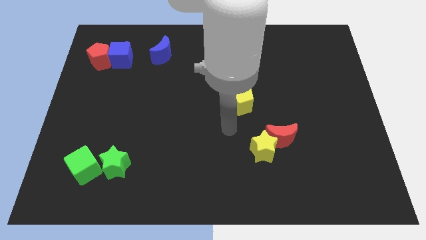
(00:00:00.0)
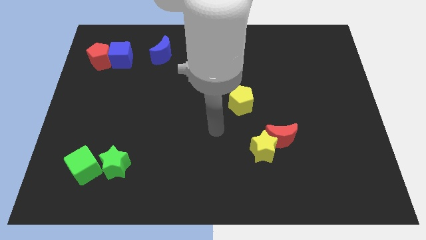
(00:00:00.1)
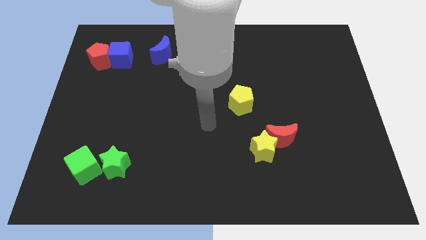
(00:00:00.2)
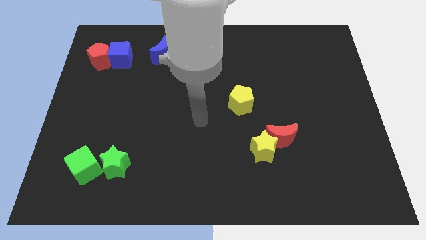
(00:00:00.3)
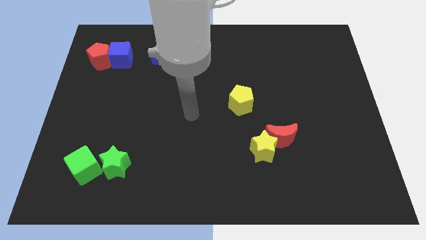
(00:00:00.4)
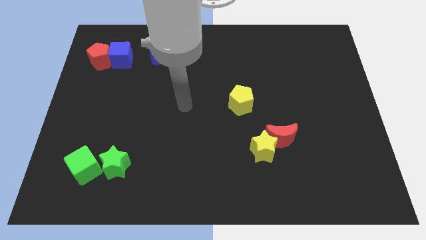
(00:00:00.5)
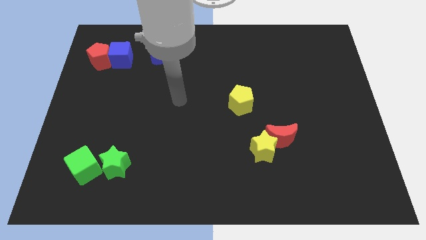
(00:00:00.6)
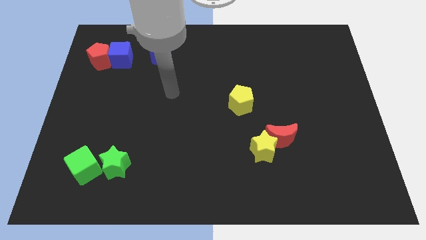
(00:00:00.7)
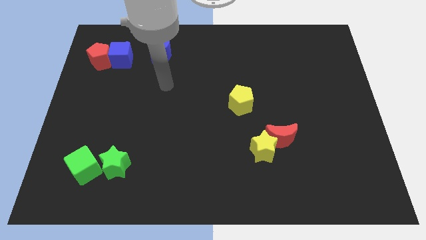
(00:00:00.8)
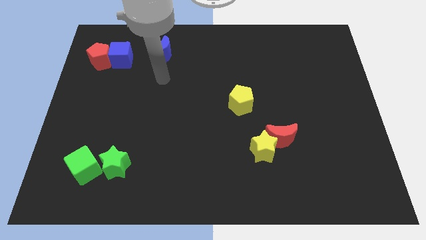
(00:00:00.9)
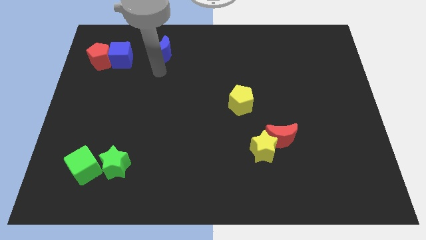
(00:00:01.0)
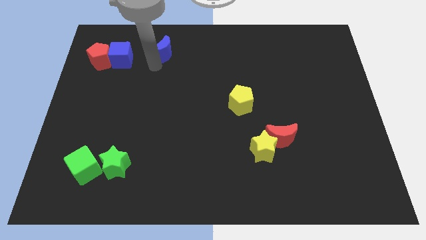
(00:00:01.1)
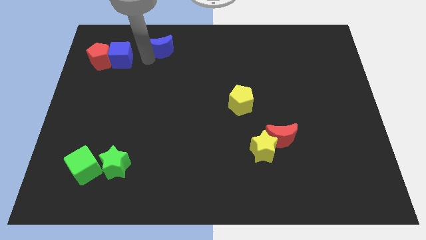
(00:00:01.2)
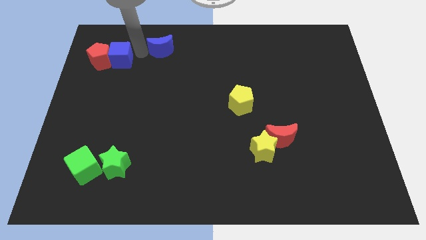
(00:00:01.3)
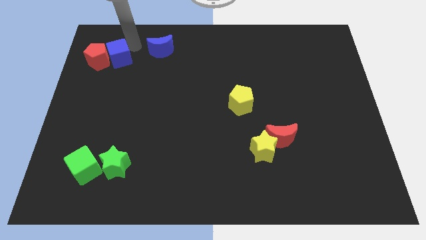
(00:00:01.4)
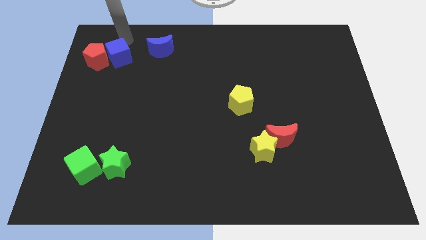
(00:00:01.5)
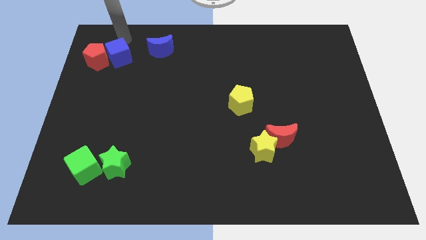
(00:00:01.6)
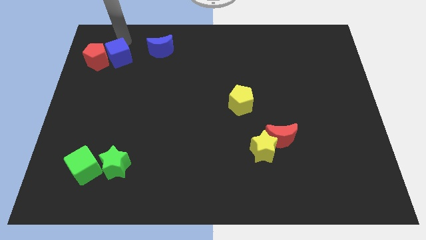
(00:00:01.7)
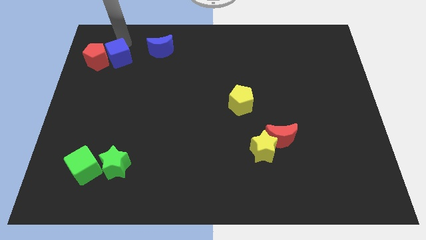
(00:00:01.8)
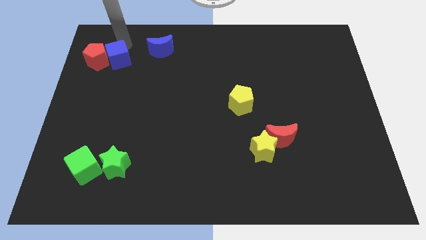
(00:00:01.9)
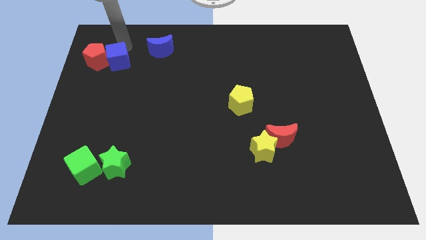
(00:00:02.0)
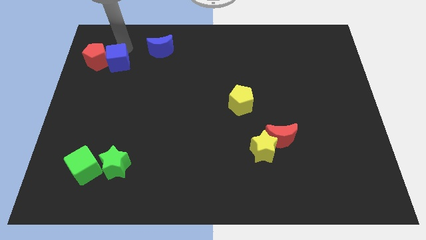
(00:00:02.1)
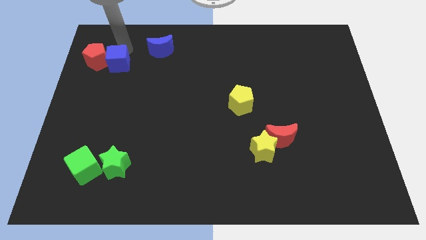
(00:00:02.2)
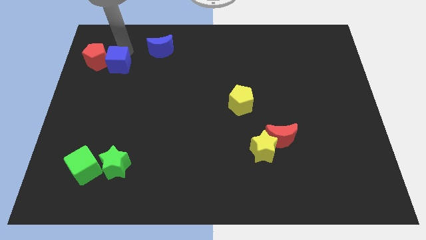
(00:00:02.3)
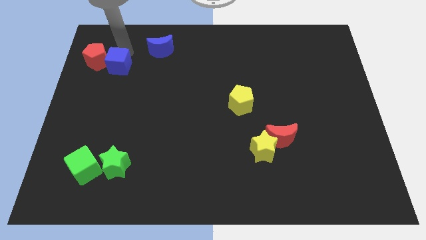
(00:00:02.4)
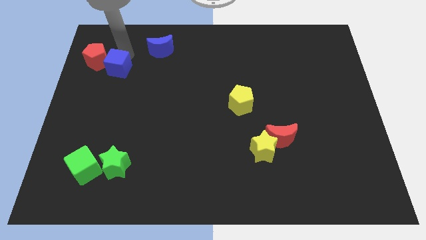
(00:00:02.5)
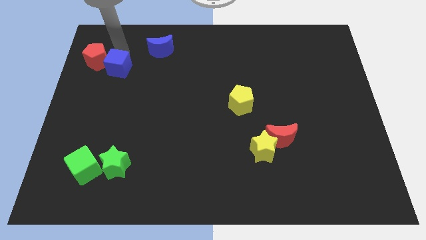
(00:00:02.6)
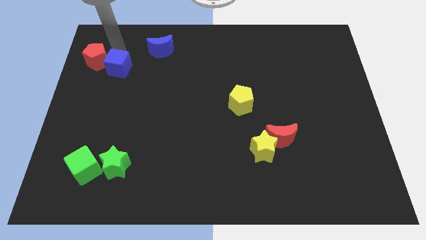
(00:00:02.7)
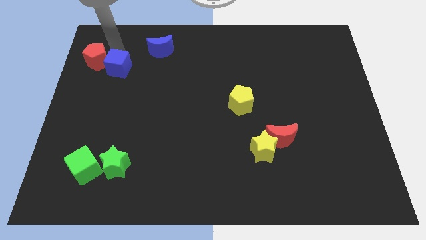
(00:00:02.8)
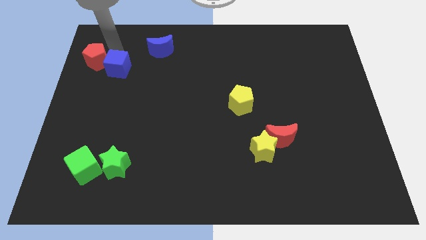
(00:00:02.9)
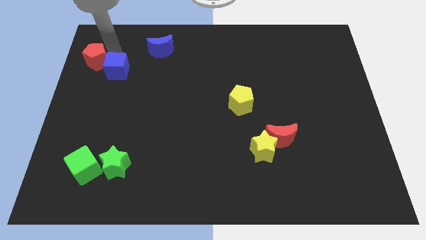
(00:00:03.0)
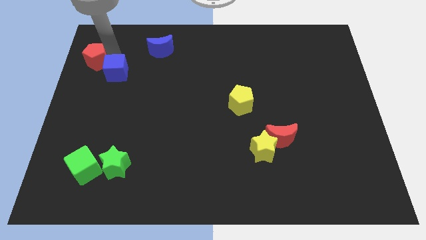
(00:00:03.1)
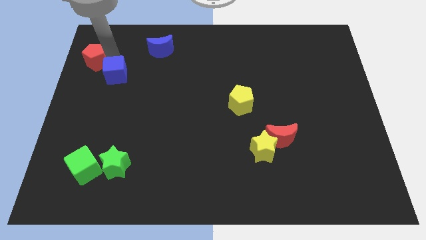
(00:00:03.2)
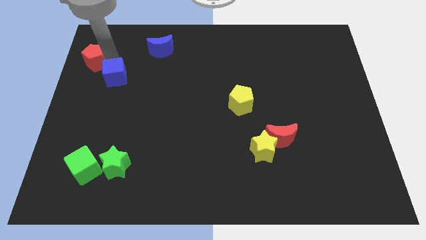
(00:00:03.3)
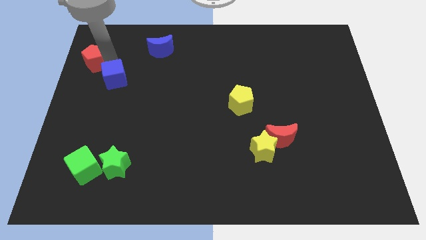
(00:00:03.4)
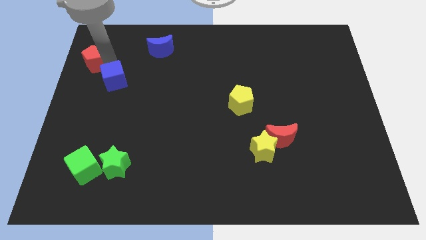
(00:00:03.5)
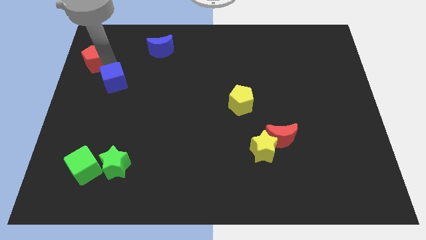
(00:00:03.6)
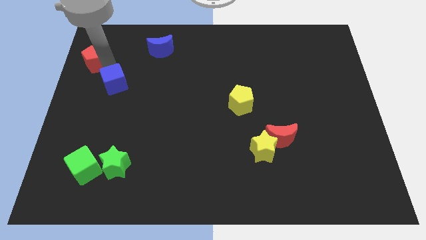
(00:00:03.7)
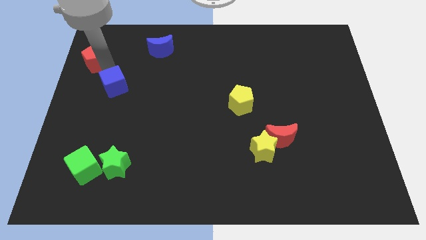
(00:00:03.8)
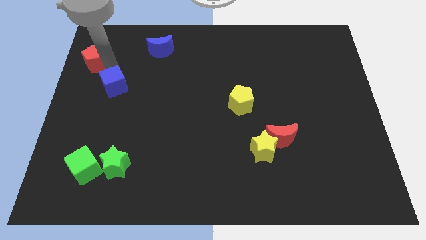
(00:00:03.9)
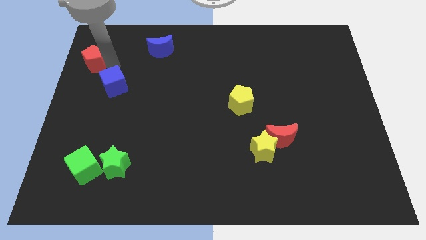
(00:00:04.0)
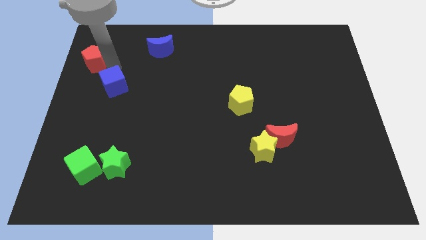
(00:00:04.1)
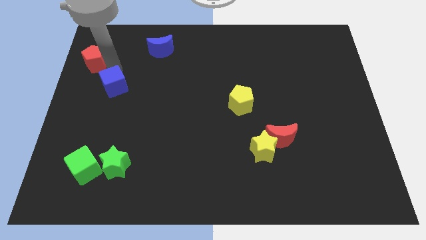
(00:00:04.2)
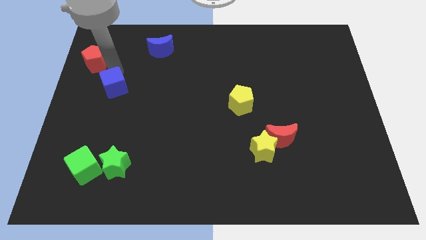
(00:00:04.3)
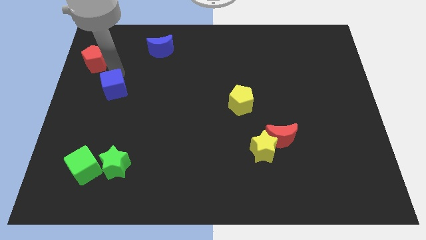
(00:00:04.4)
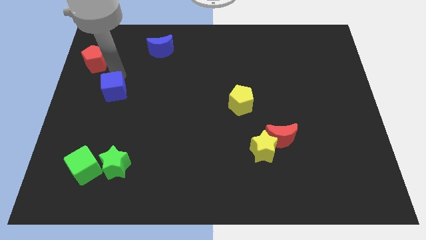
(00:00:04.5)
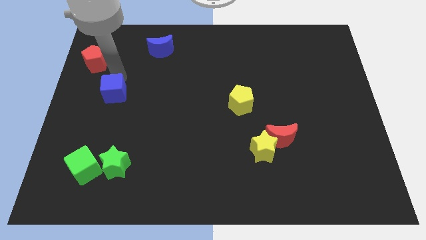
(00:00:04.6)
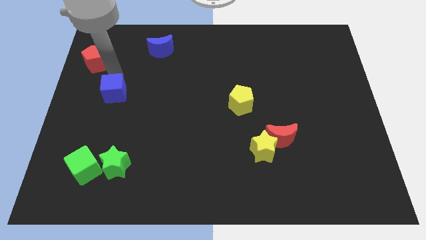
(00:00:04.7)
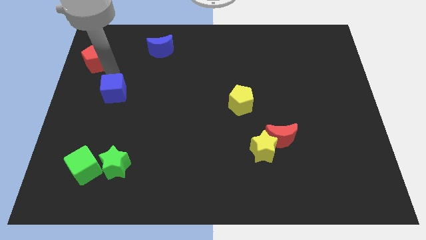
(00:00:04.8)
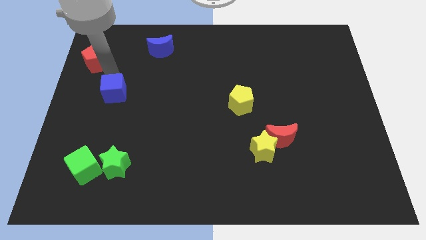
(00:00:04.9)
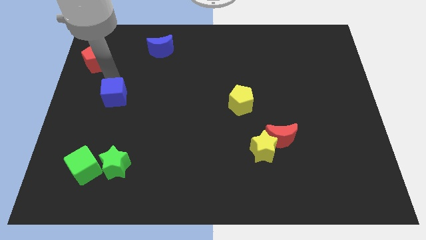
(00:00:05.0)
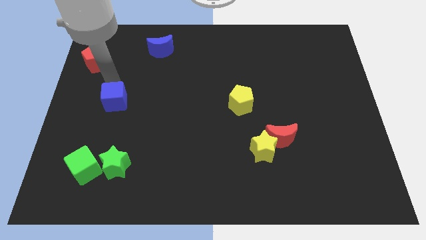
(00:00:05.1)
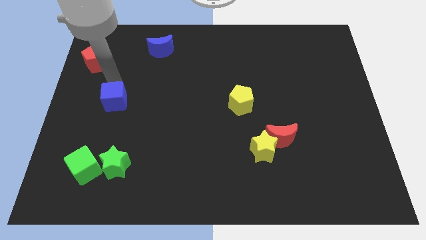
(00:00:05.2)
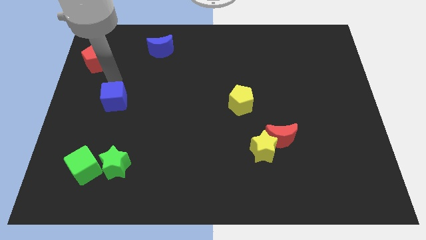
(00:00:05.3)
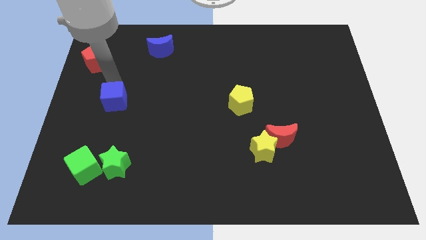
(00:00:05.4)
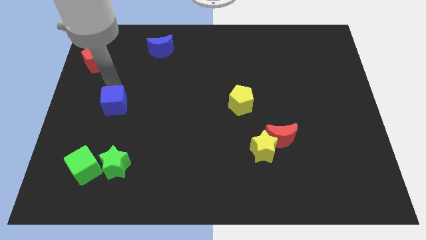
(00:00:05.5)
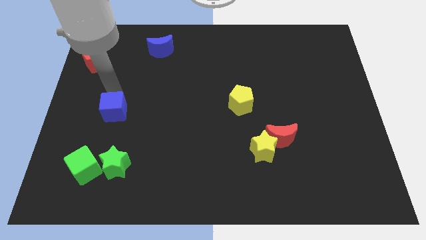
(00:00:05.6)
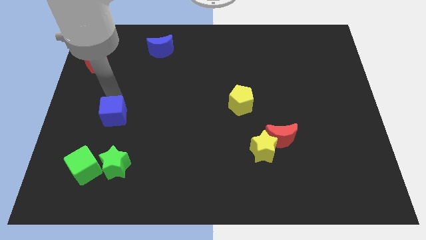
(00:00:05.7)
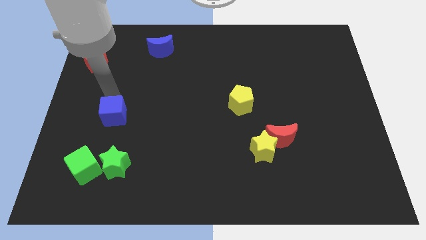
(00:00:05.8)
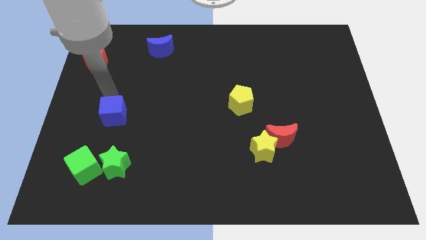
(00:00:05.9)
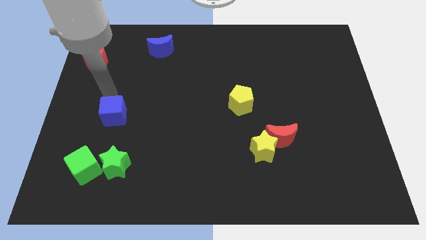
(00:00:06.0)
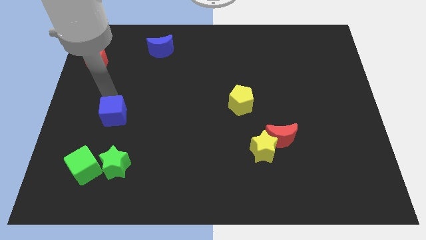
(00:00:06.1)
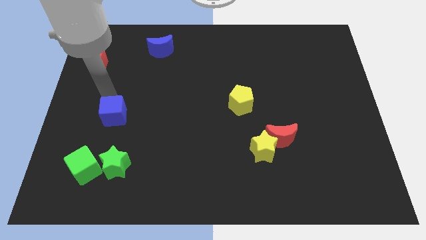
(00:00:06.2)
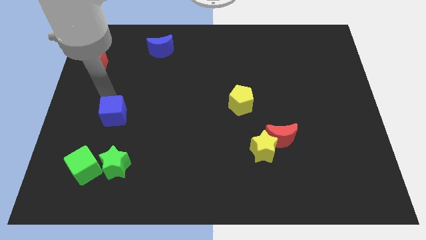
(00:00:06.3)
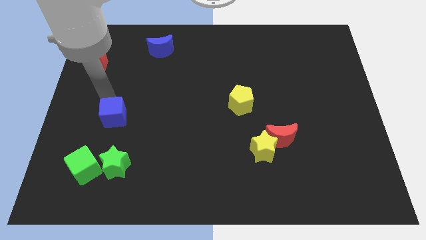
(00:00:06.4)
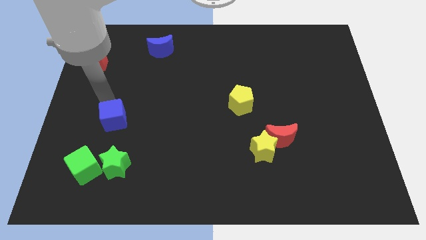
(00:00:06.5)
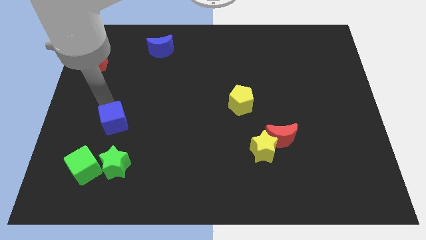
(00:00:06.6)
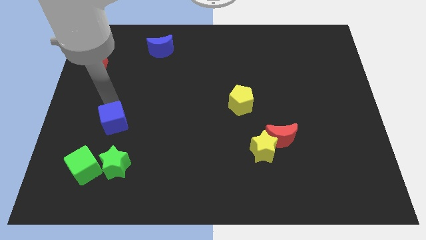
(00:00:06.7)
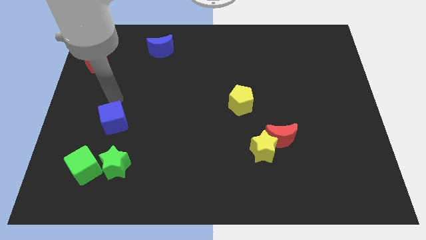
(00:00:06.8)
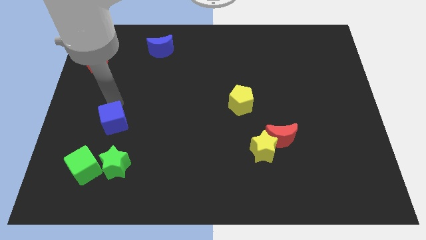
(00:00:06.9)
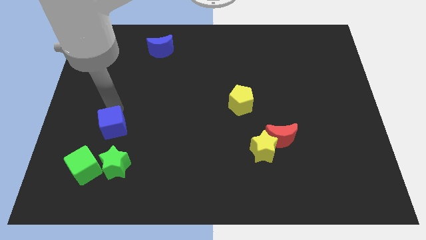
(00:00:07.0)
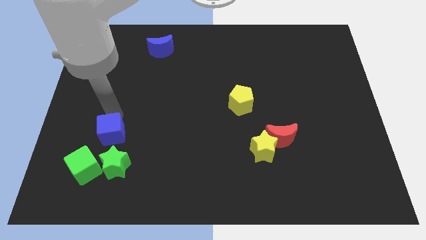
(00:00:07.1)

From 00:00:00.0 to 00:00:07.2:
put the blue cube to the top right of the green cube
